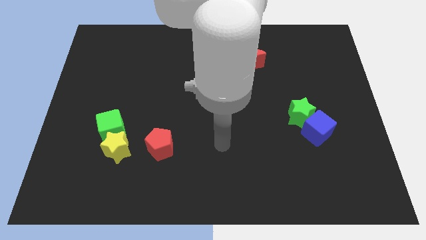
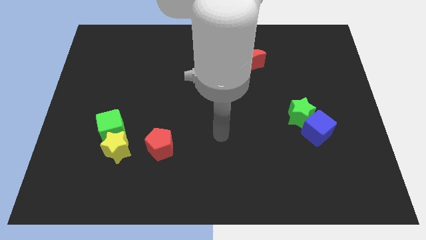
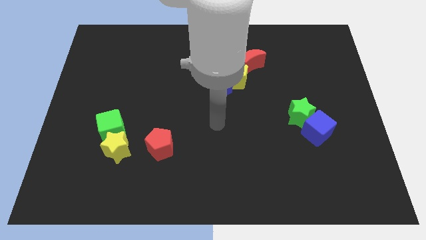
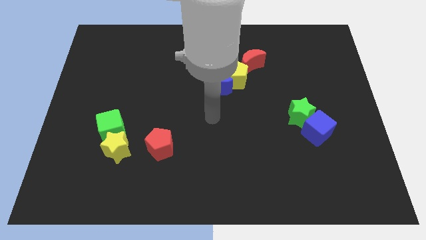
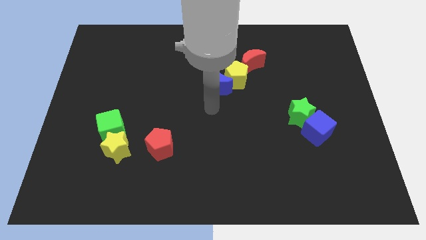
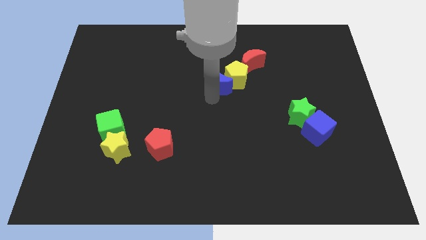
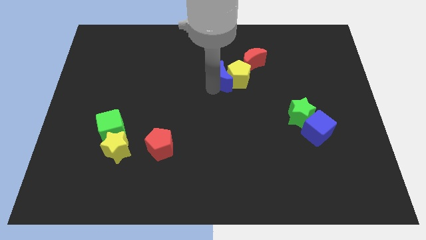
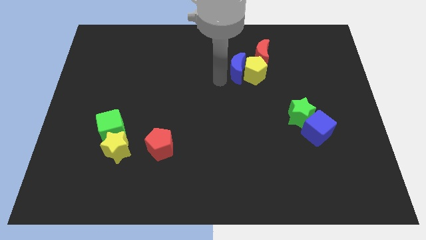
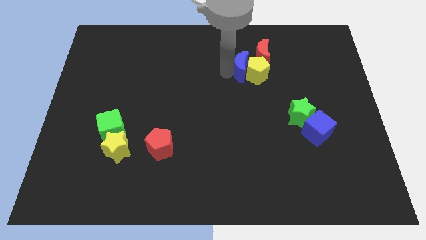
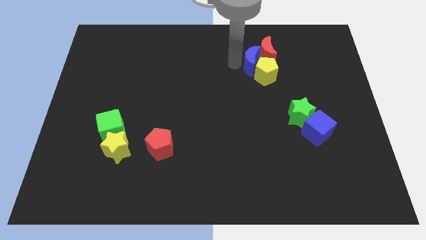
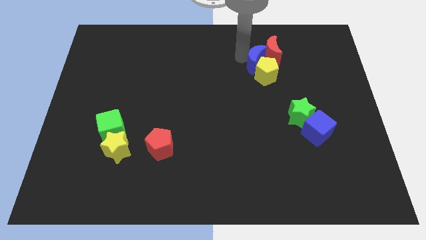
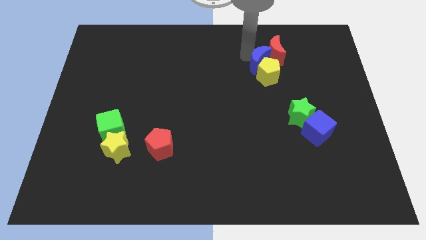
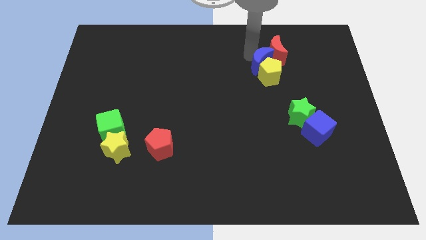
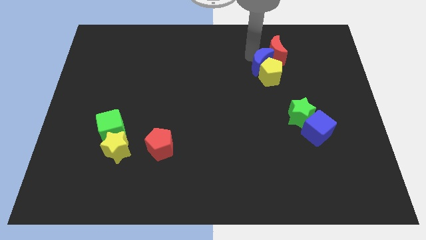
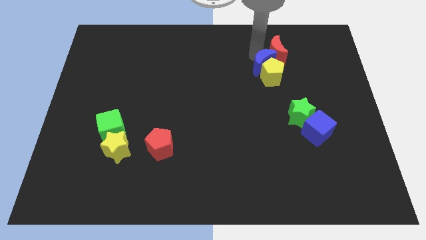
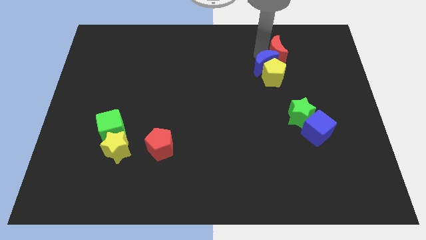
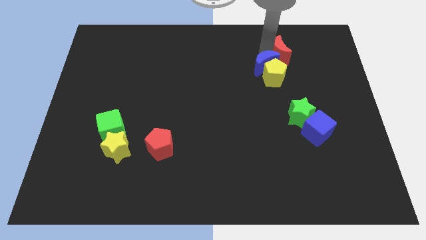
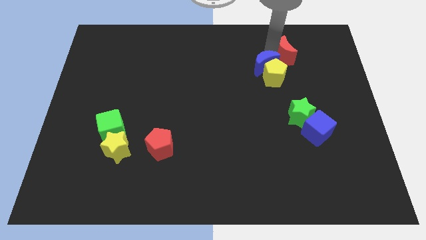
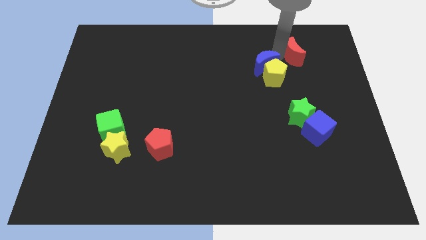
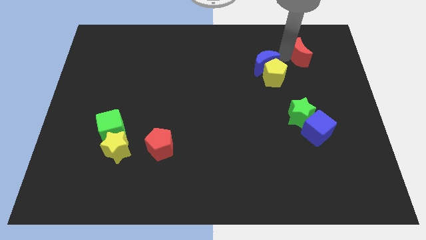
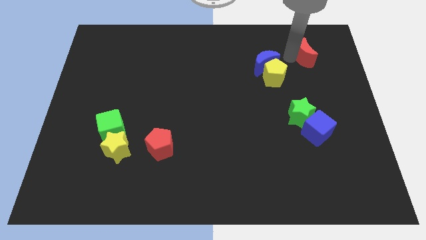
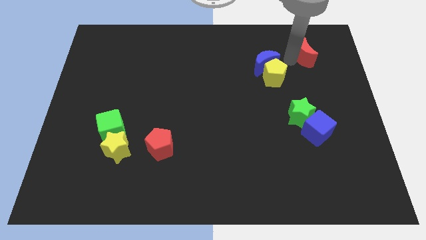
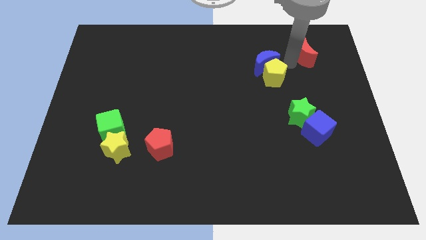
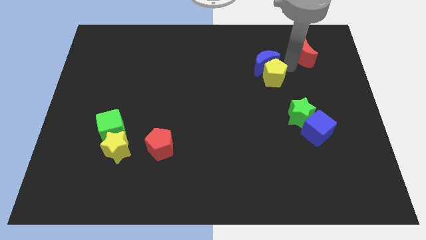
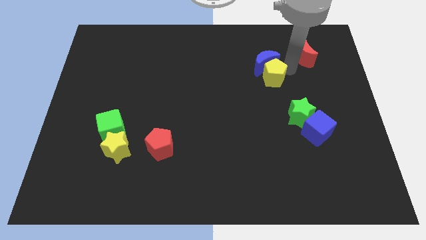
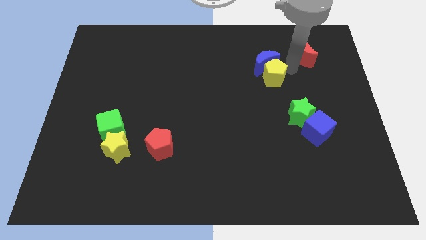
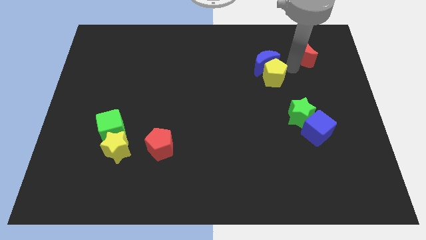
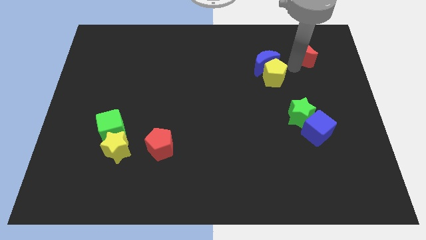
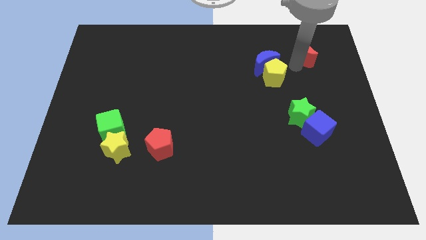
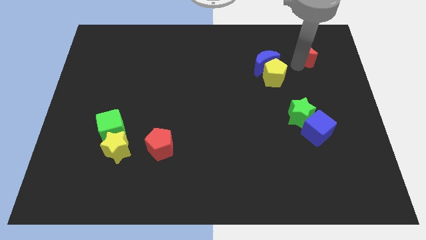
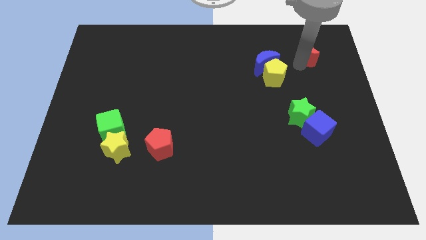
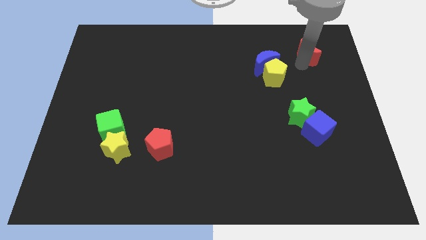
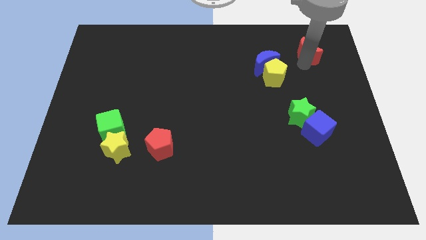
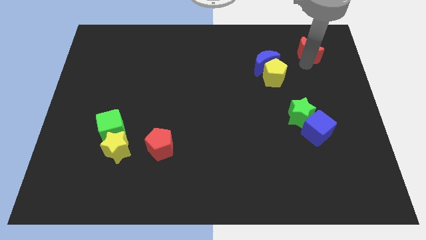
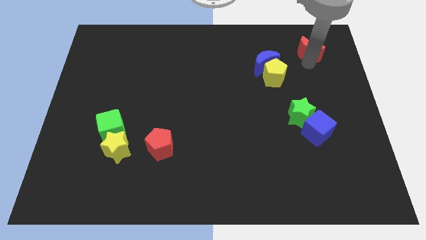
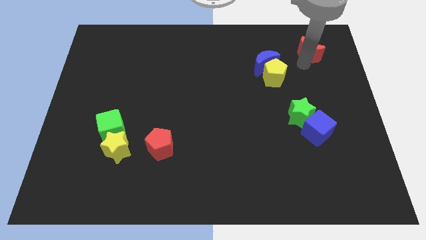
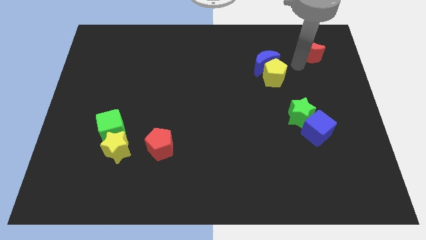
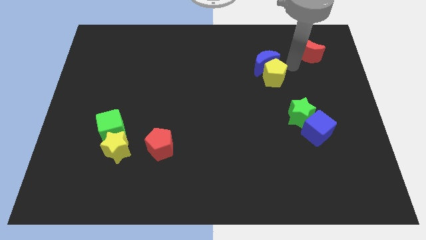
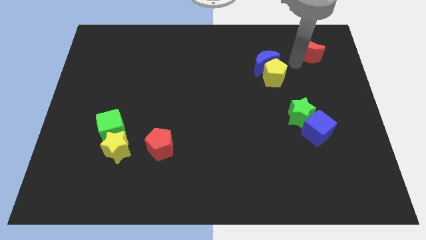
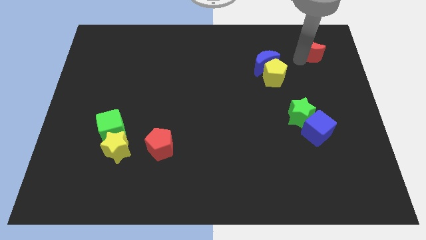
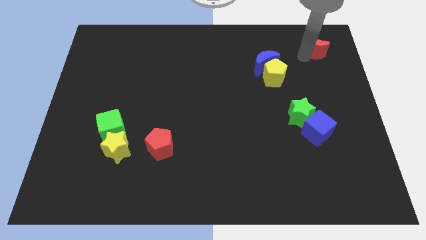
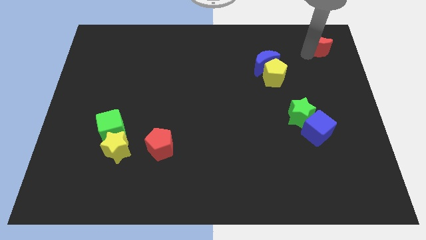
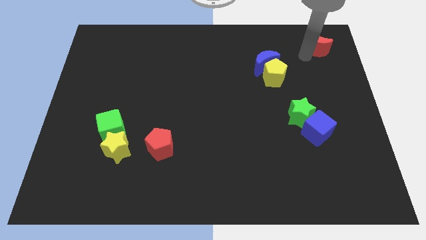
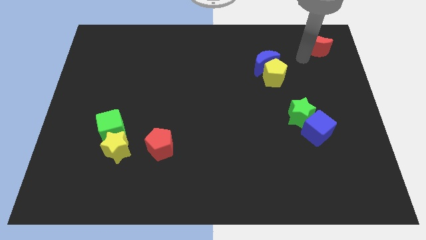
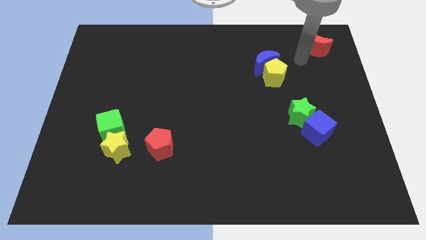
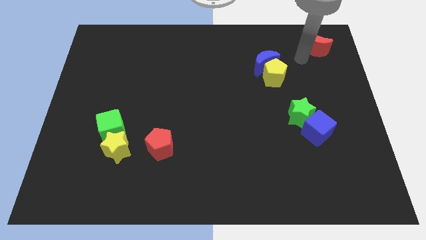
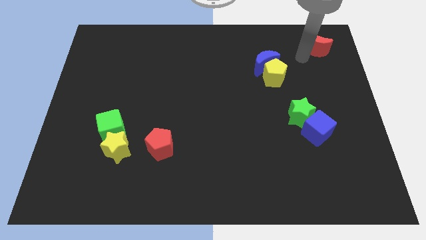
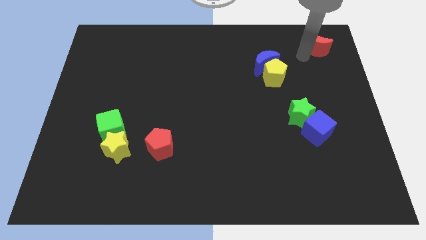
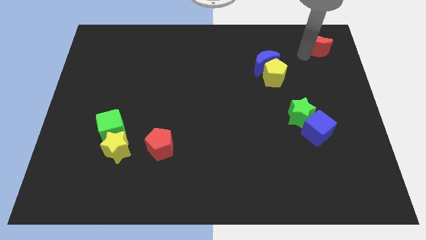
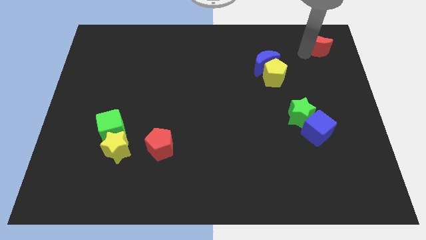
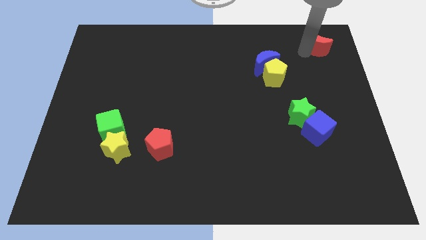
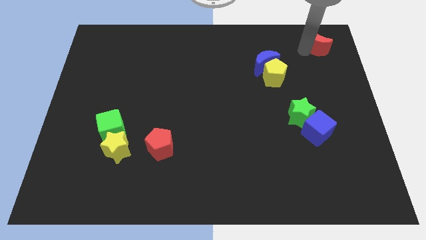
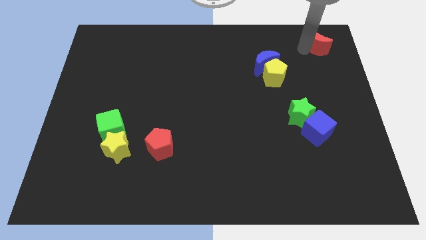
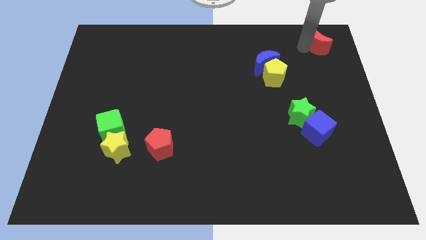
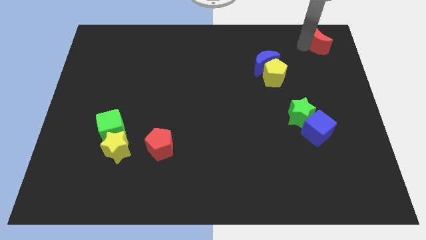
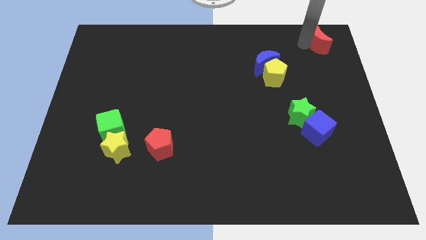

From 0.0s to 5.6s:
slide the red moon to the top right corner

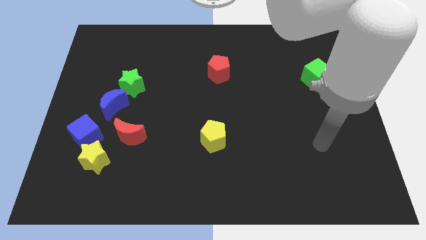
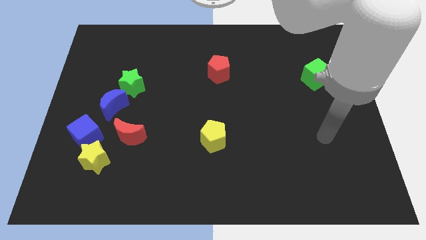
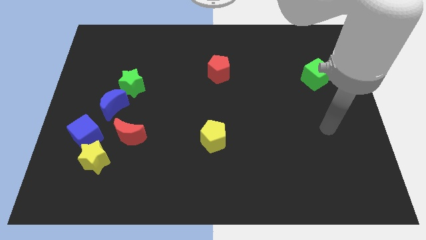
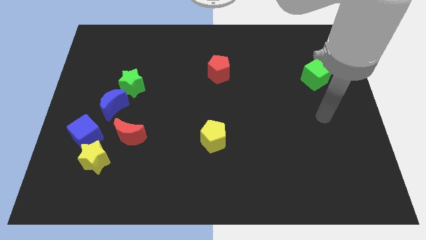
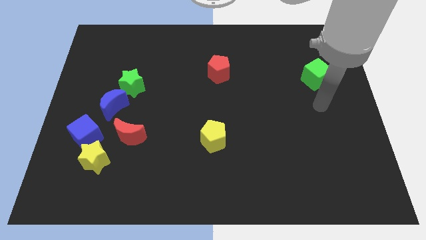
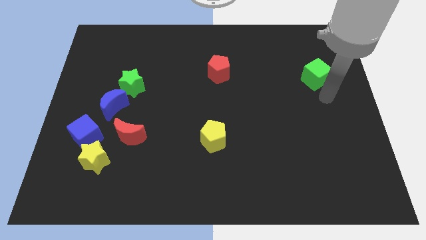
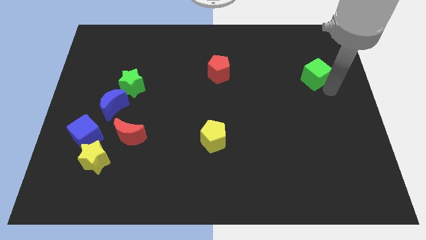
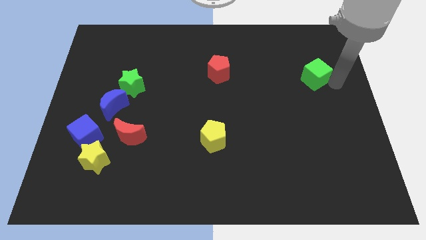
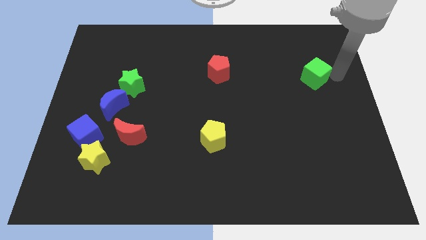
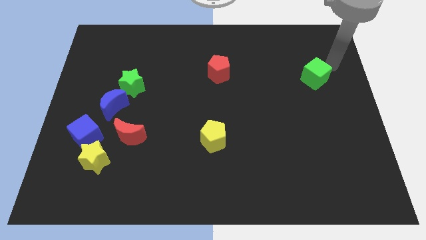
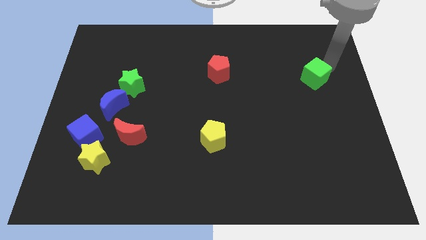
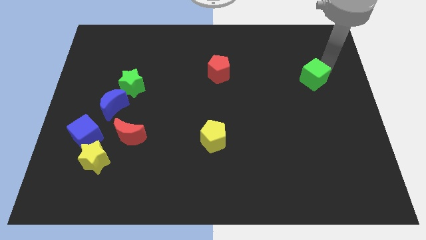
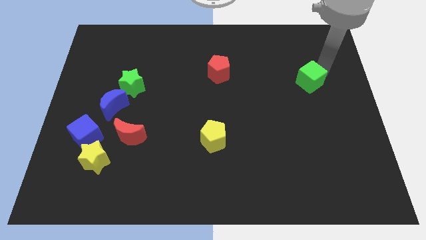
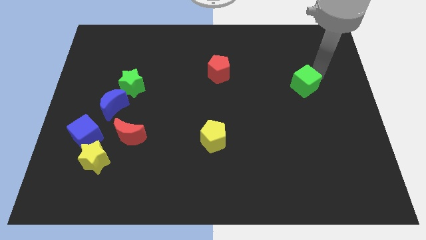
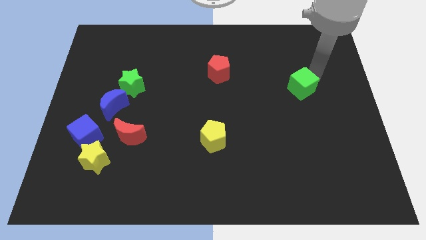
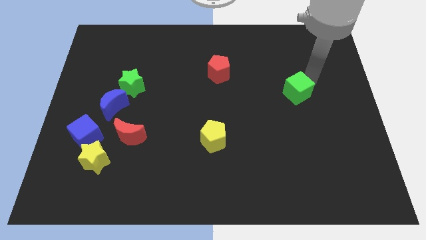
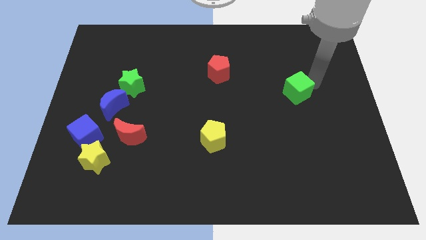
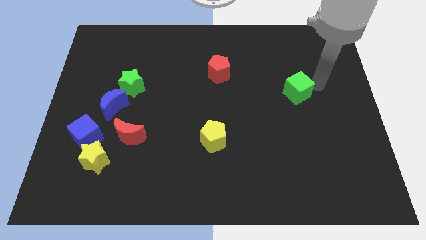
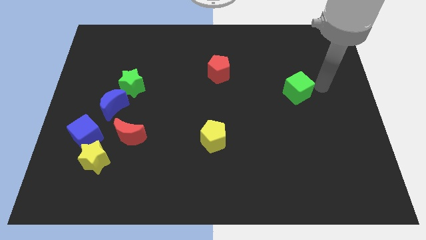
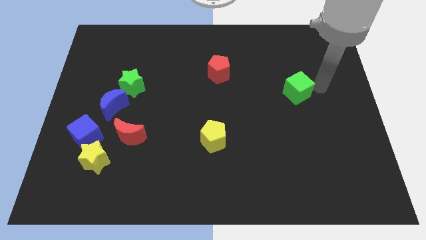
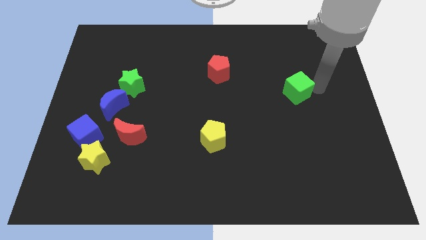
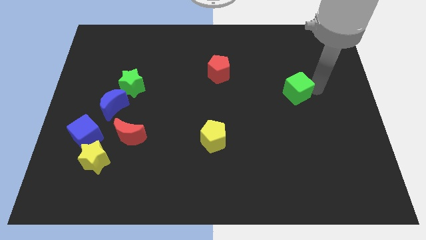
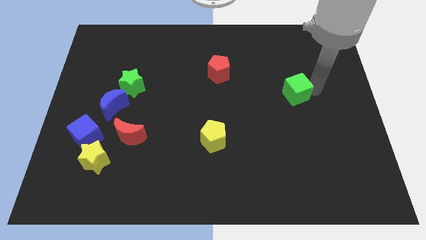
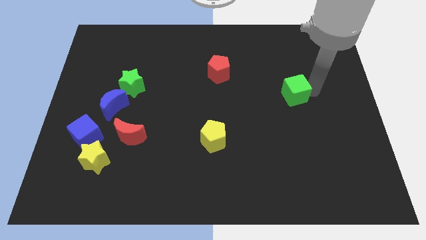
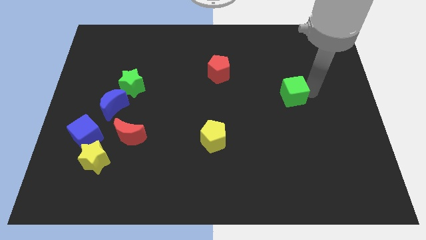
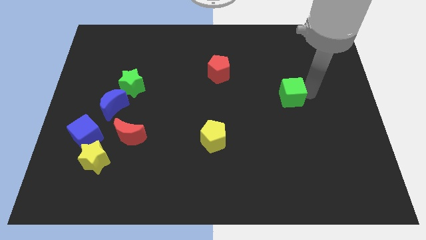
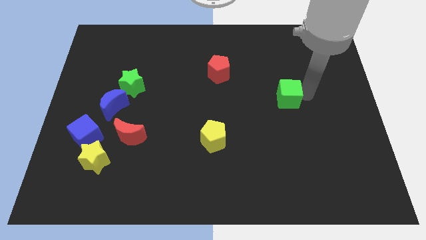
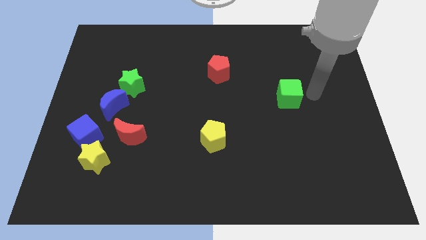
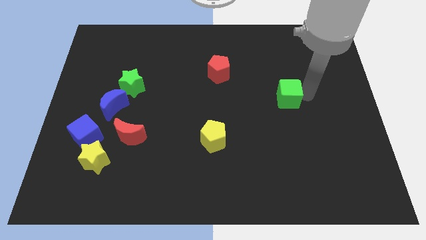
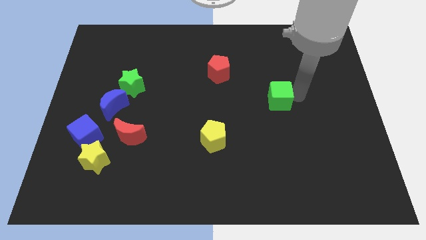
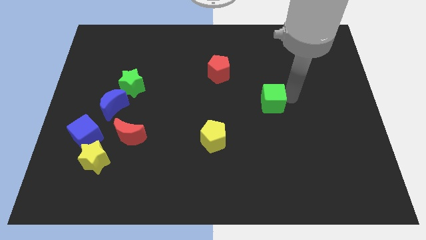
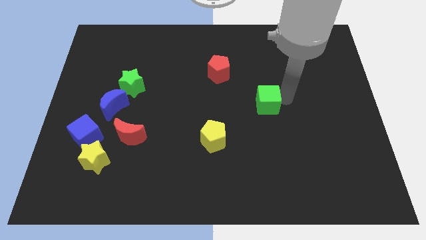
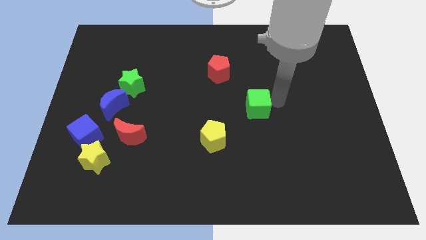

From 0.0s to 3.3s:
move the green cube to the center of the board
